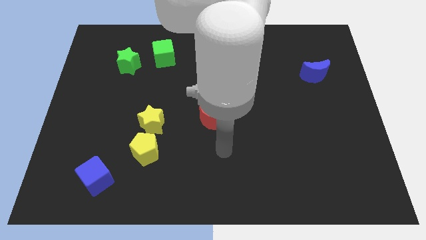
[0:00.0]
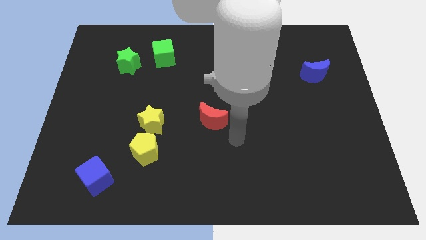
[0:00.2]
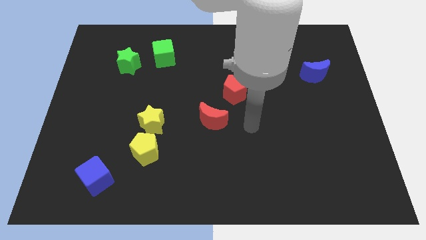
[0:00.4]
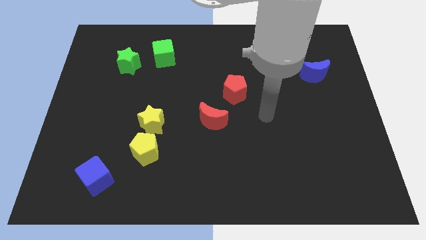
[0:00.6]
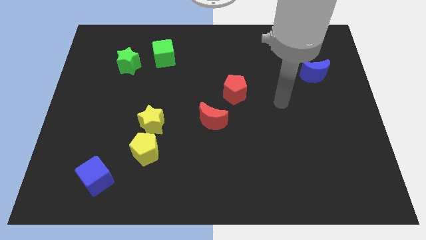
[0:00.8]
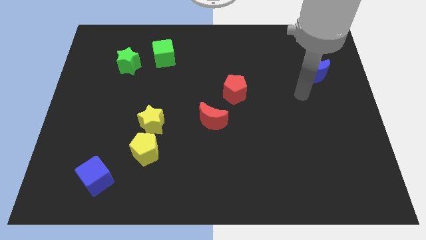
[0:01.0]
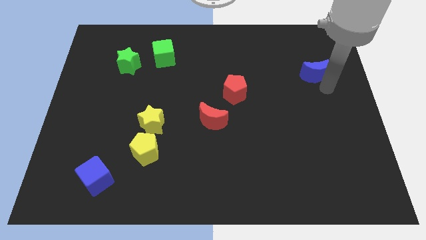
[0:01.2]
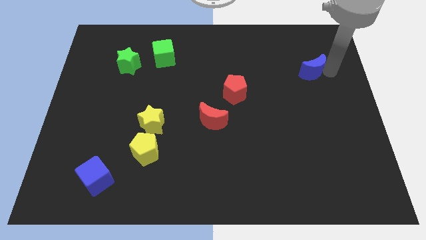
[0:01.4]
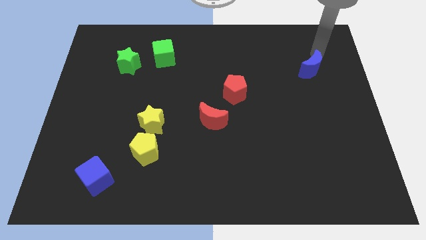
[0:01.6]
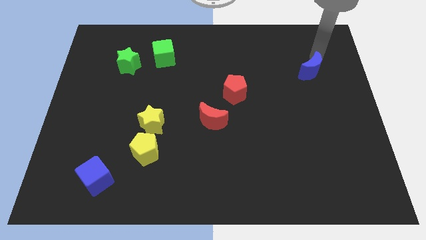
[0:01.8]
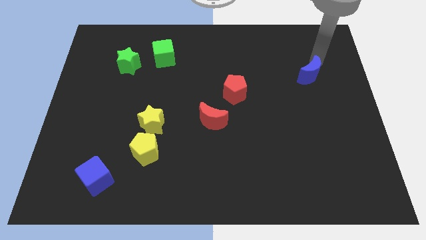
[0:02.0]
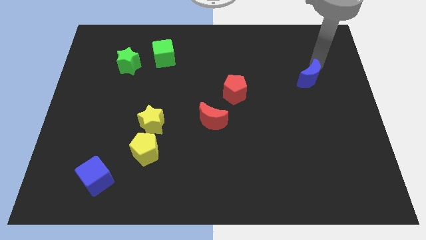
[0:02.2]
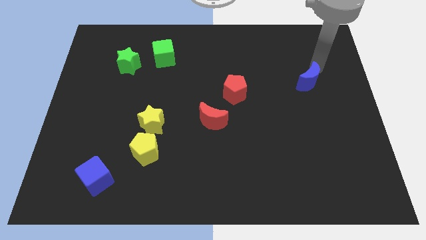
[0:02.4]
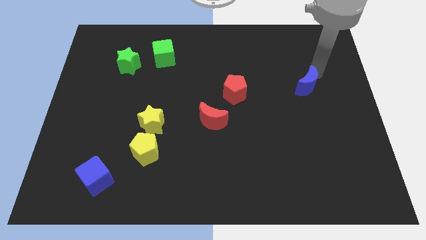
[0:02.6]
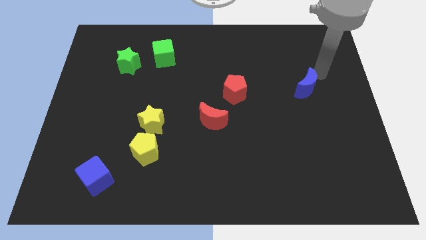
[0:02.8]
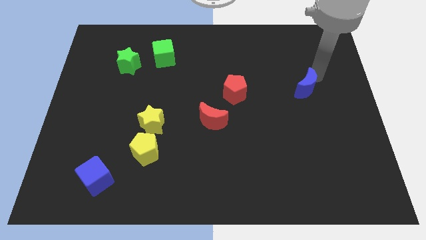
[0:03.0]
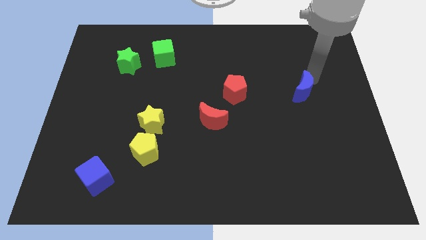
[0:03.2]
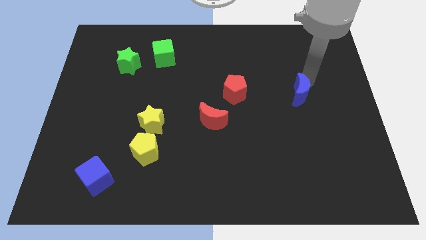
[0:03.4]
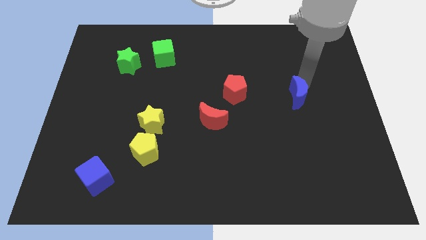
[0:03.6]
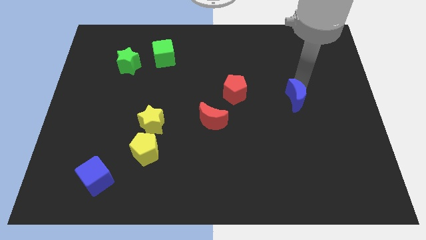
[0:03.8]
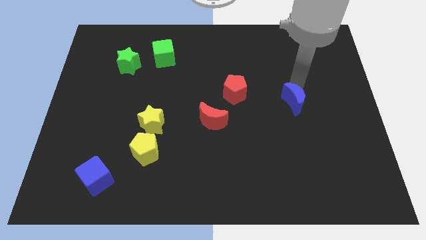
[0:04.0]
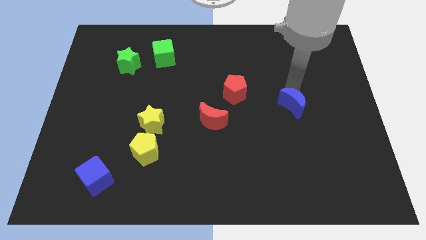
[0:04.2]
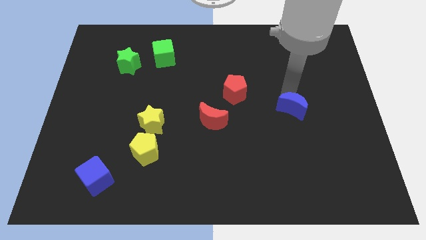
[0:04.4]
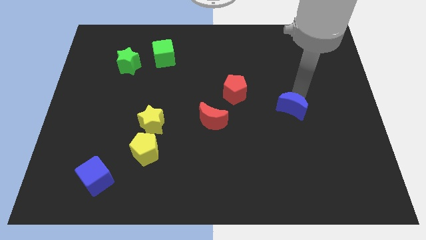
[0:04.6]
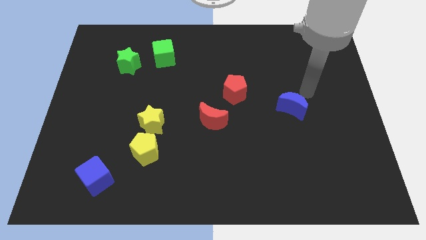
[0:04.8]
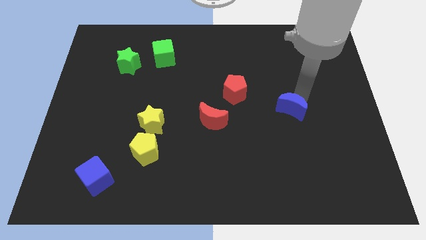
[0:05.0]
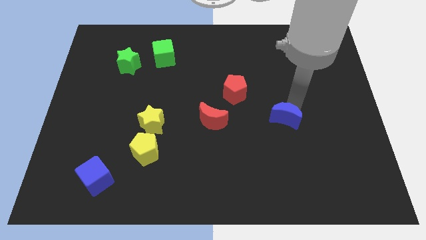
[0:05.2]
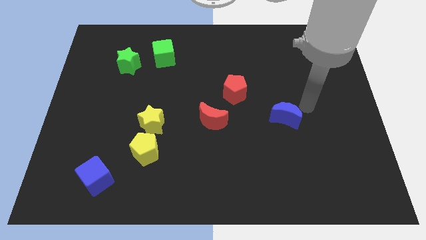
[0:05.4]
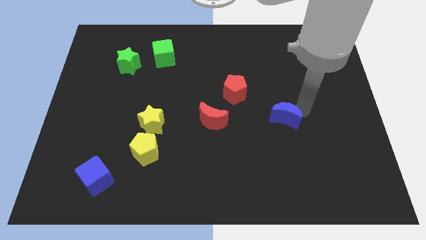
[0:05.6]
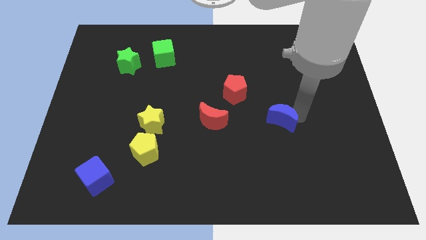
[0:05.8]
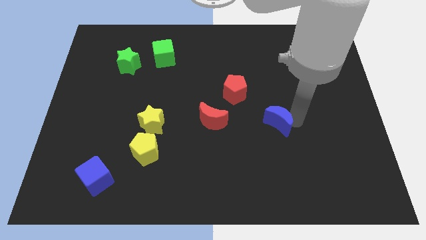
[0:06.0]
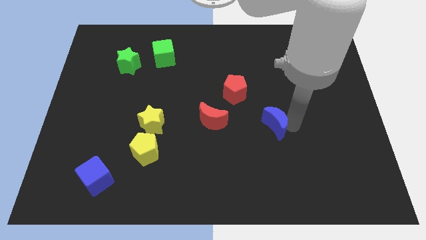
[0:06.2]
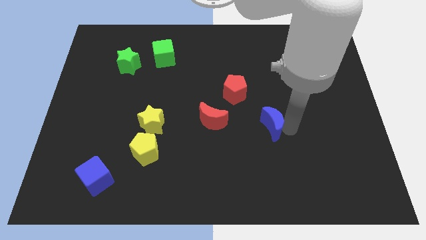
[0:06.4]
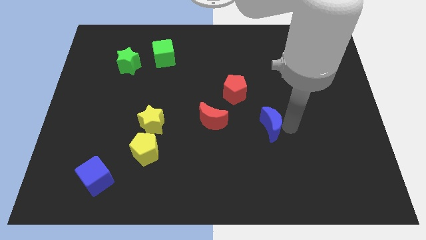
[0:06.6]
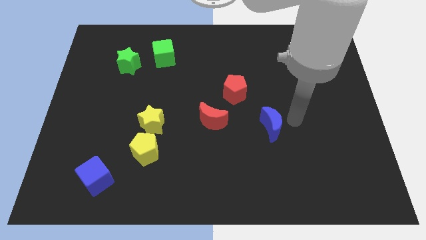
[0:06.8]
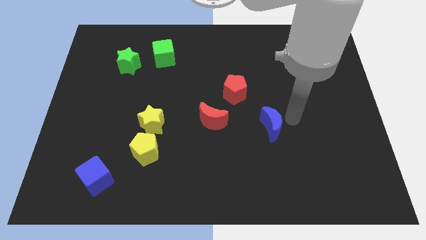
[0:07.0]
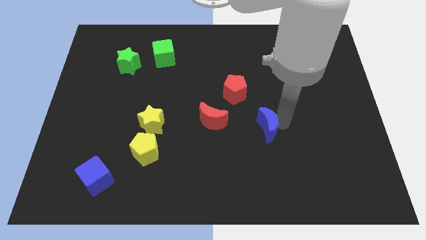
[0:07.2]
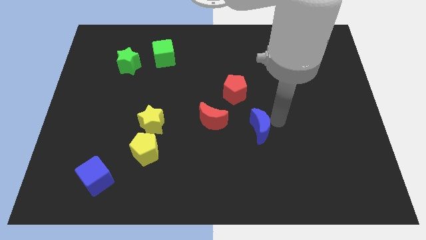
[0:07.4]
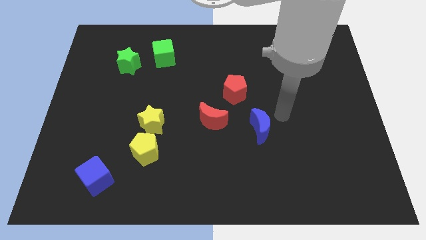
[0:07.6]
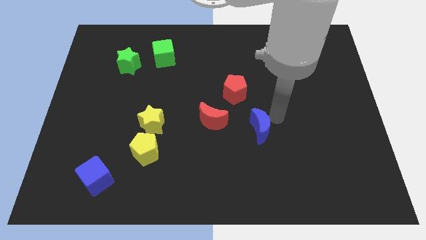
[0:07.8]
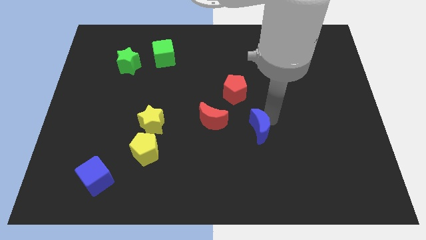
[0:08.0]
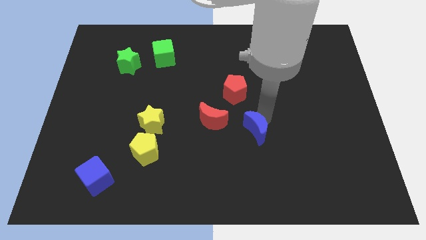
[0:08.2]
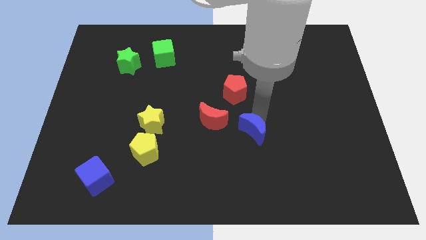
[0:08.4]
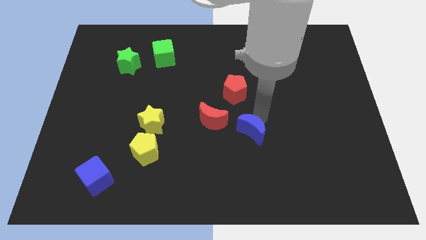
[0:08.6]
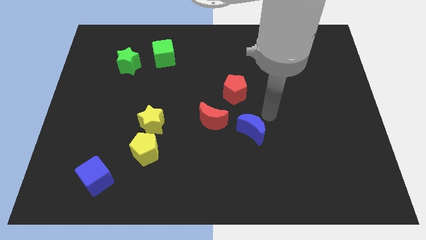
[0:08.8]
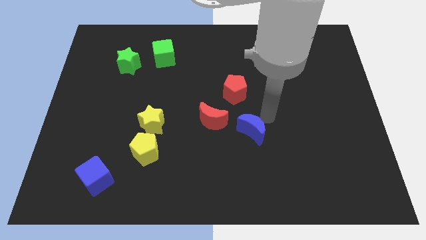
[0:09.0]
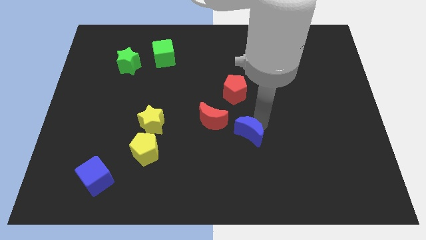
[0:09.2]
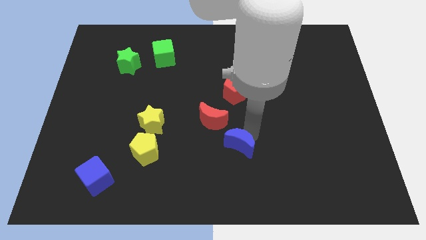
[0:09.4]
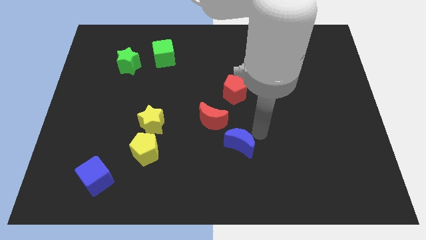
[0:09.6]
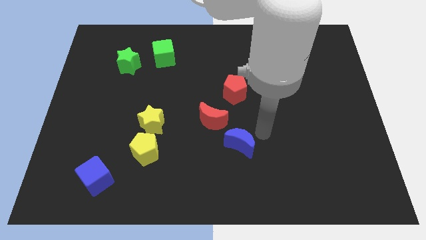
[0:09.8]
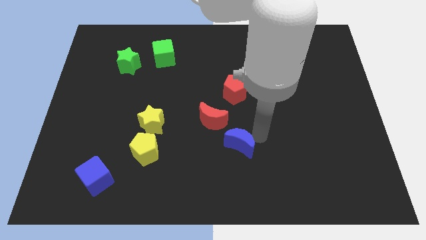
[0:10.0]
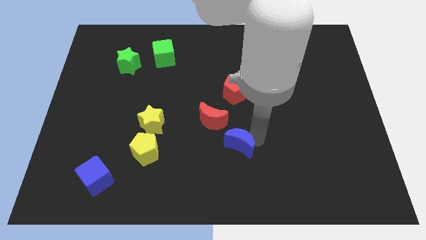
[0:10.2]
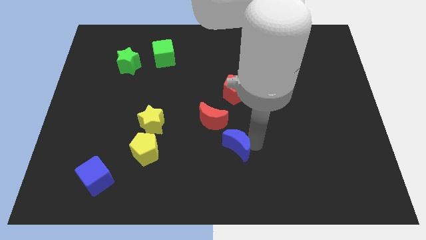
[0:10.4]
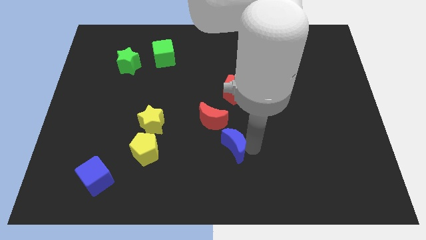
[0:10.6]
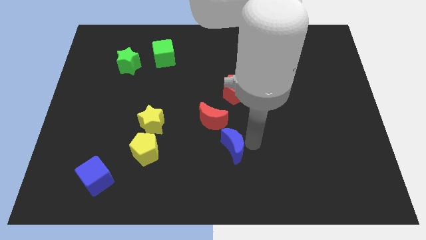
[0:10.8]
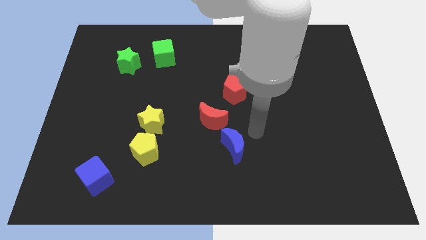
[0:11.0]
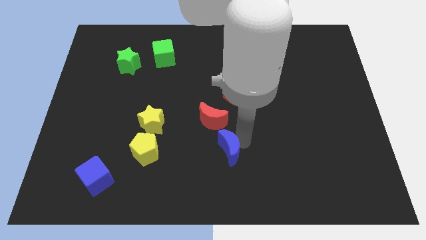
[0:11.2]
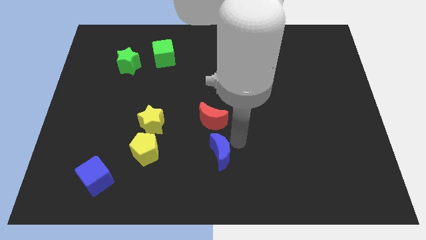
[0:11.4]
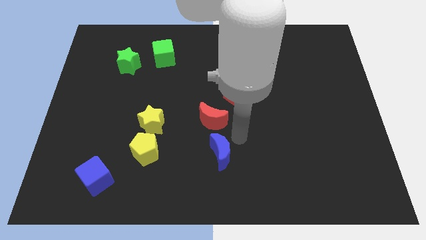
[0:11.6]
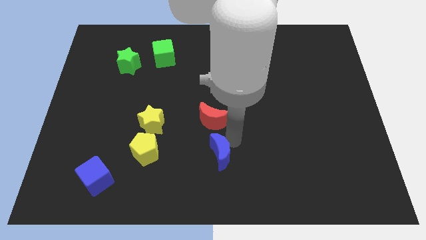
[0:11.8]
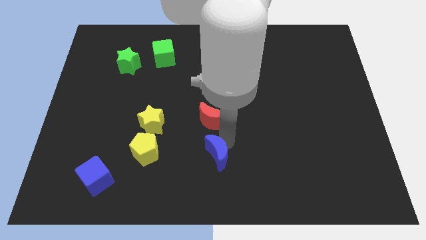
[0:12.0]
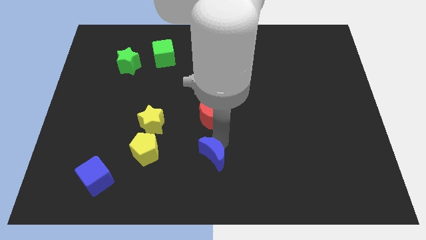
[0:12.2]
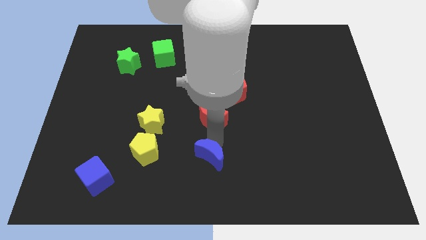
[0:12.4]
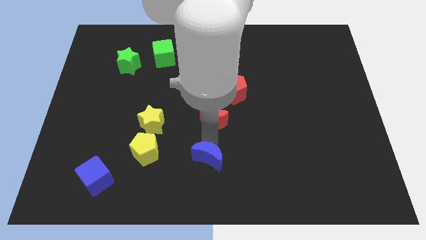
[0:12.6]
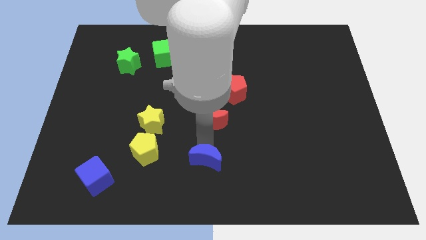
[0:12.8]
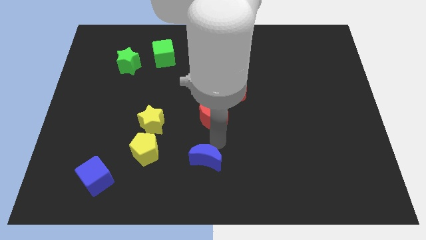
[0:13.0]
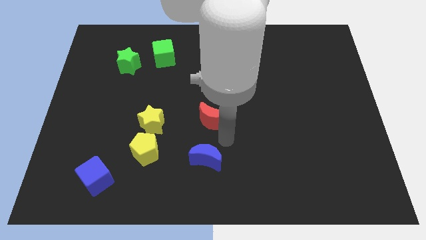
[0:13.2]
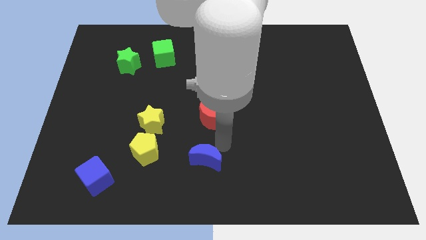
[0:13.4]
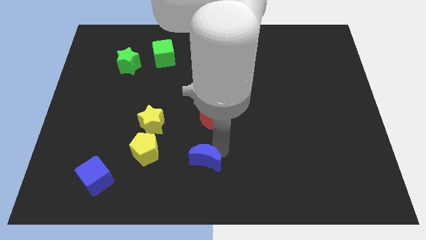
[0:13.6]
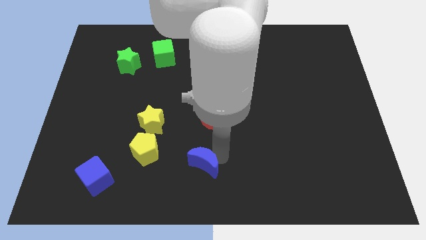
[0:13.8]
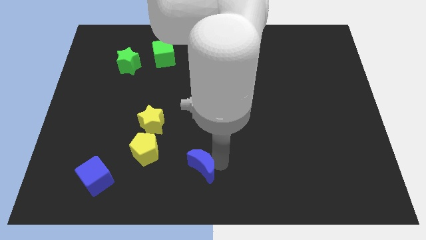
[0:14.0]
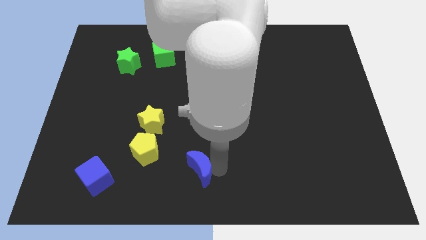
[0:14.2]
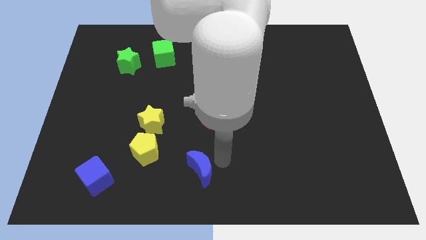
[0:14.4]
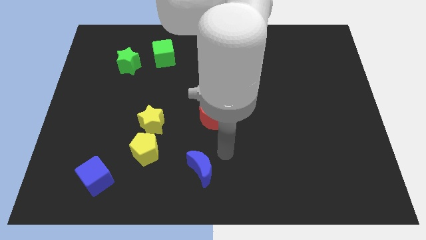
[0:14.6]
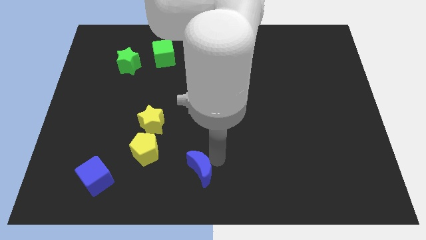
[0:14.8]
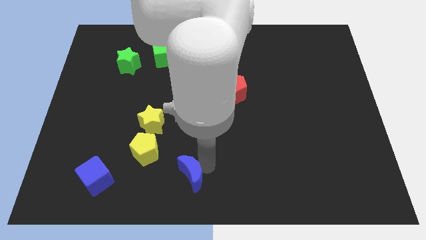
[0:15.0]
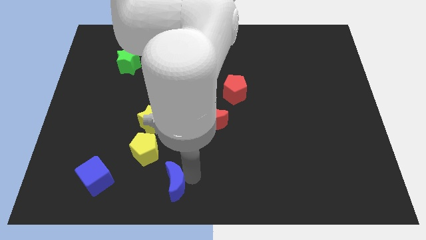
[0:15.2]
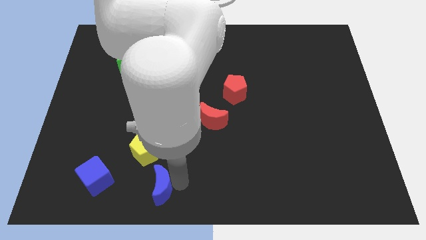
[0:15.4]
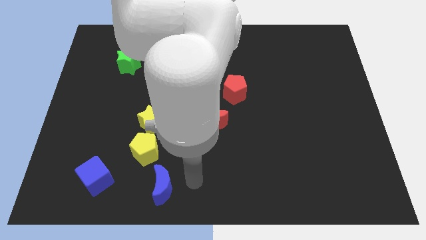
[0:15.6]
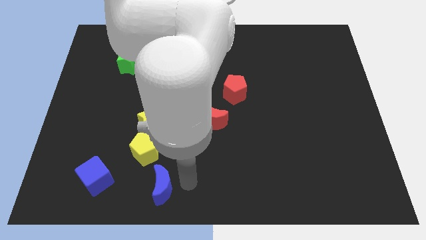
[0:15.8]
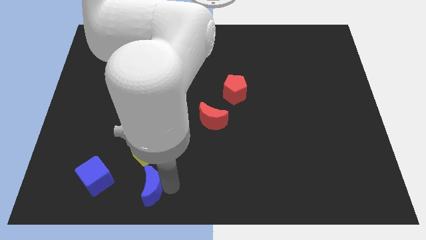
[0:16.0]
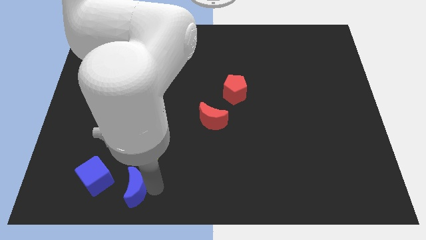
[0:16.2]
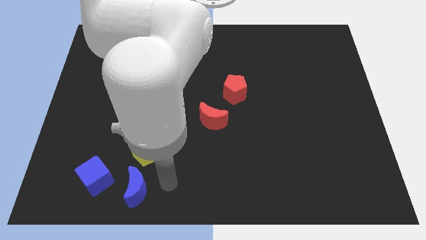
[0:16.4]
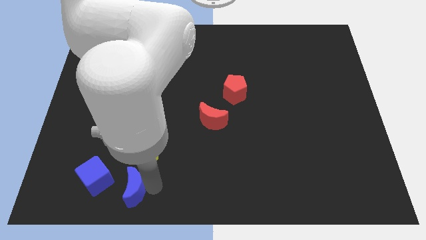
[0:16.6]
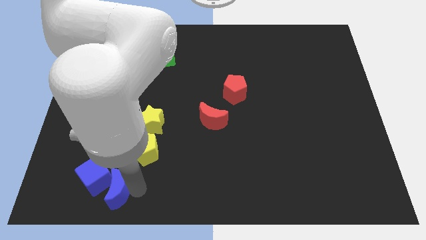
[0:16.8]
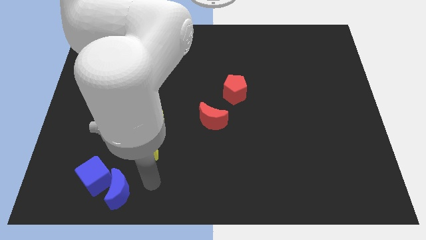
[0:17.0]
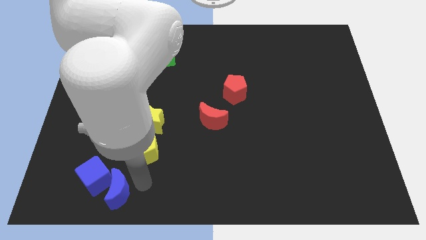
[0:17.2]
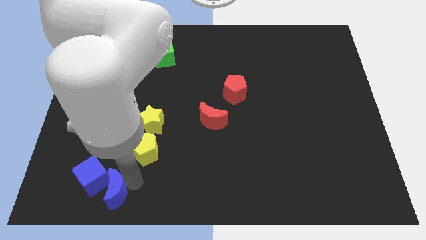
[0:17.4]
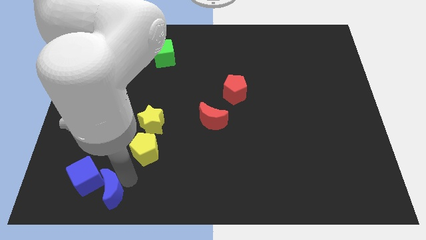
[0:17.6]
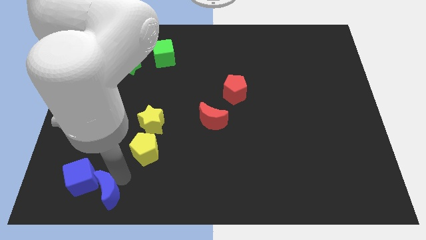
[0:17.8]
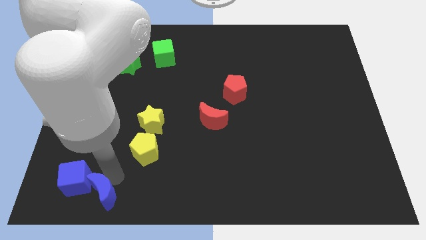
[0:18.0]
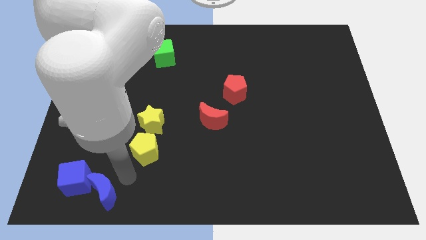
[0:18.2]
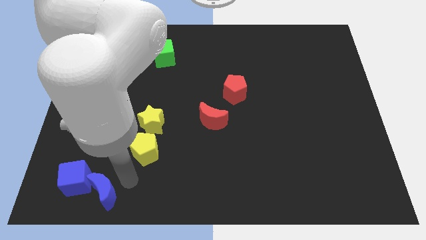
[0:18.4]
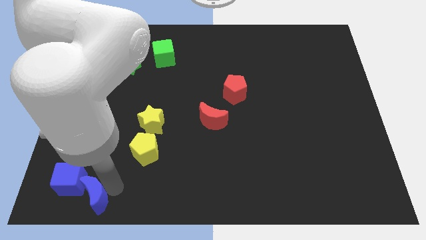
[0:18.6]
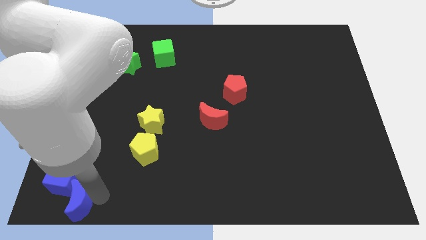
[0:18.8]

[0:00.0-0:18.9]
move the blue moon to the lower left corner
